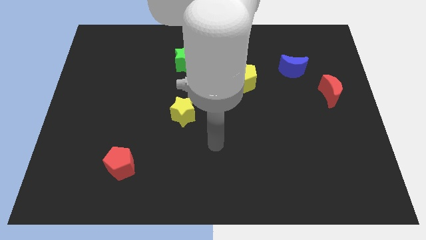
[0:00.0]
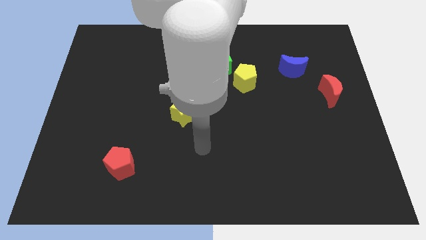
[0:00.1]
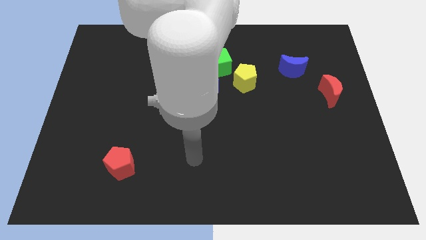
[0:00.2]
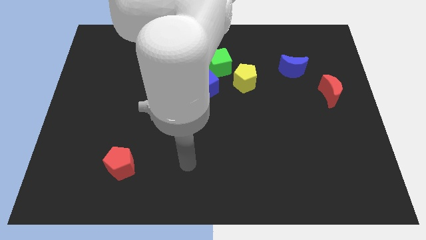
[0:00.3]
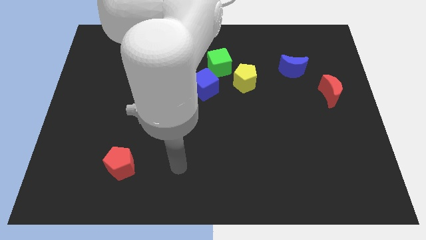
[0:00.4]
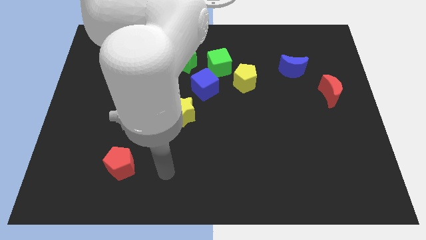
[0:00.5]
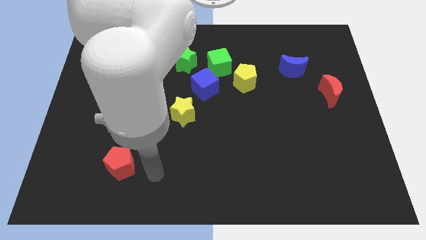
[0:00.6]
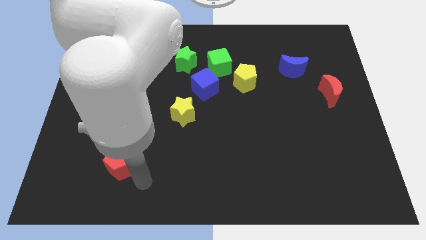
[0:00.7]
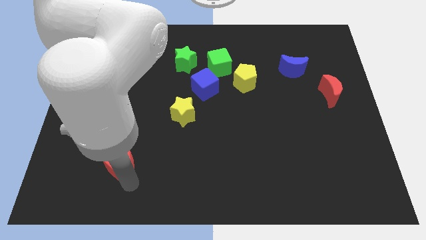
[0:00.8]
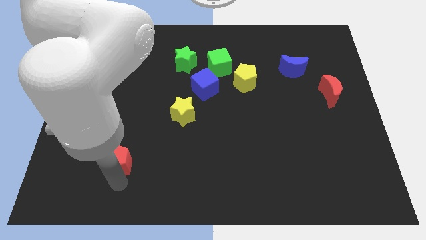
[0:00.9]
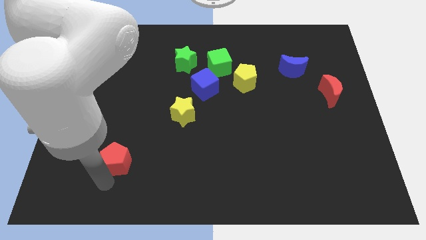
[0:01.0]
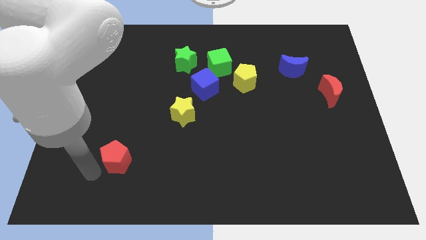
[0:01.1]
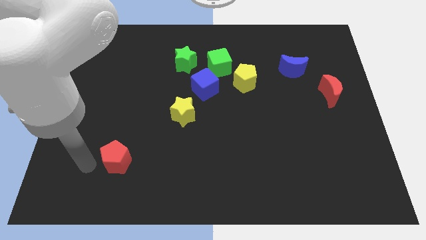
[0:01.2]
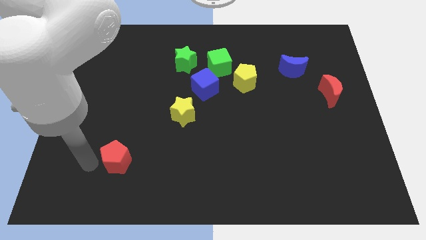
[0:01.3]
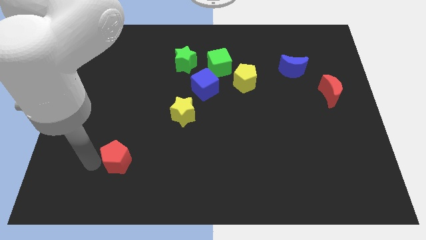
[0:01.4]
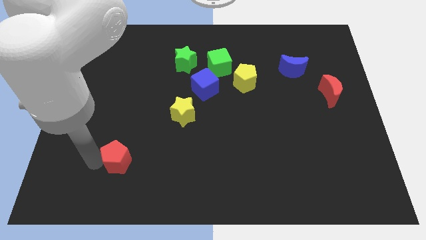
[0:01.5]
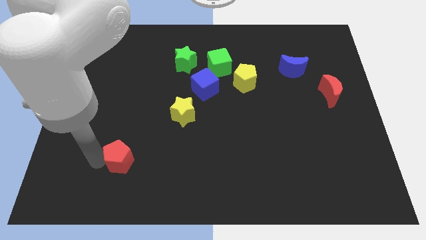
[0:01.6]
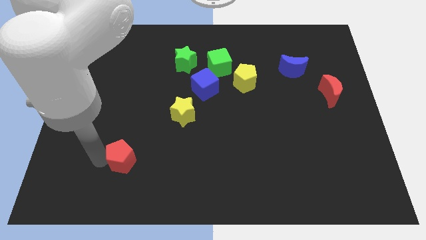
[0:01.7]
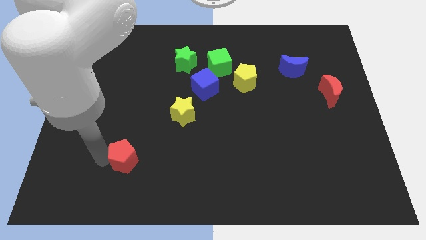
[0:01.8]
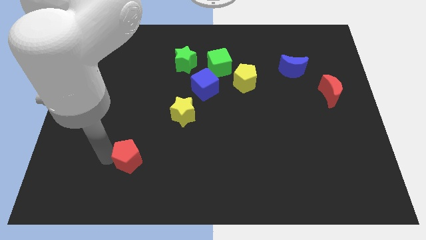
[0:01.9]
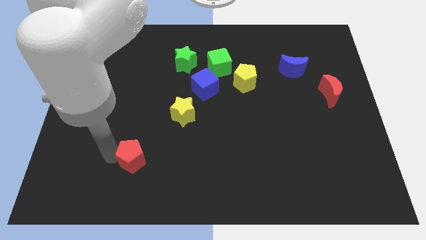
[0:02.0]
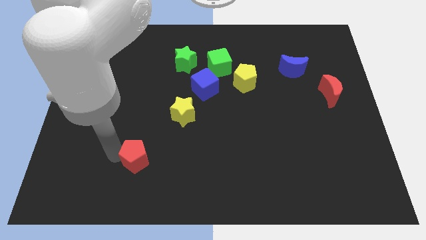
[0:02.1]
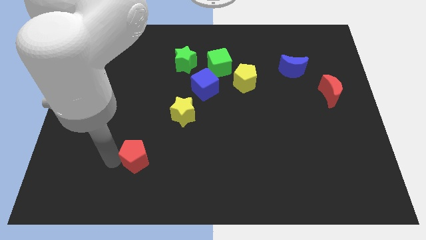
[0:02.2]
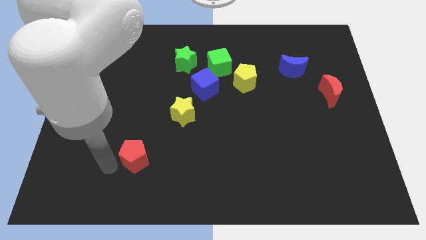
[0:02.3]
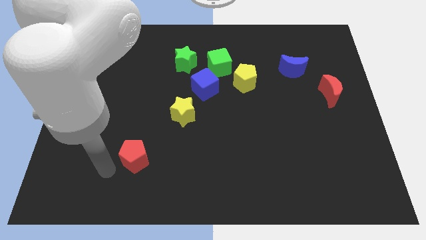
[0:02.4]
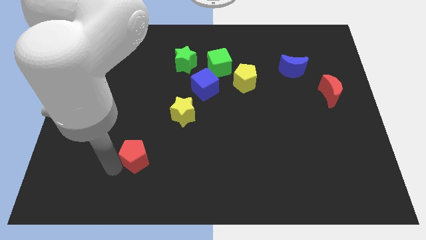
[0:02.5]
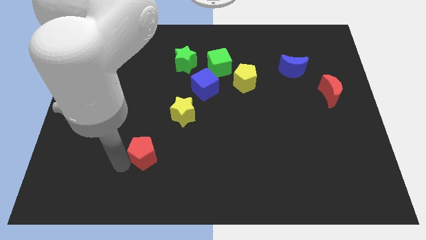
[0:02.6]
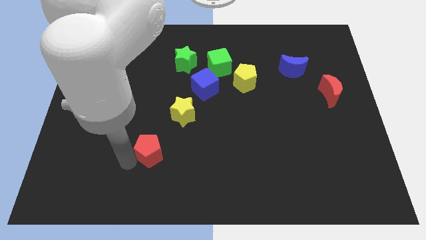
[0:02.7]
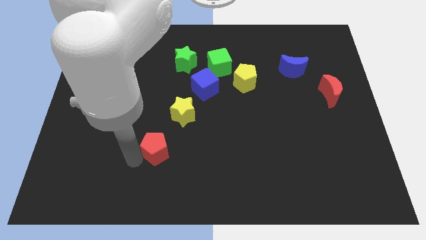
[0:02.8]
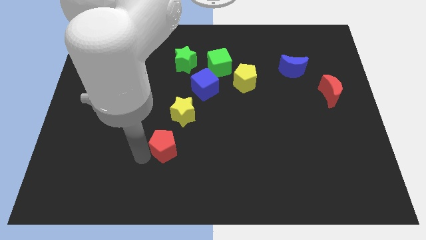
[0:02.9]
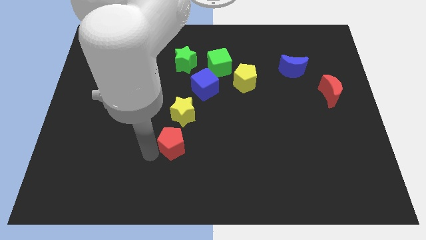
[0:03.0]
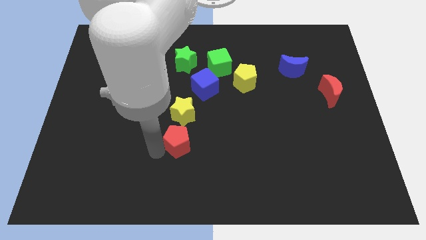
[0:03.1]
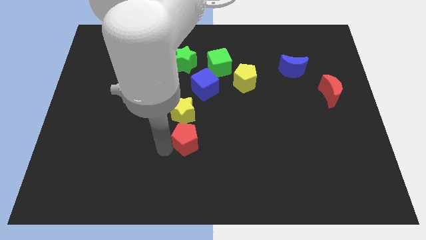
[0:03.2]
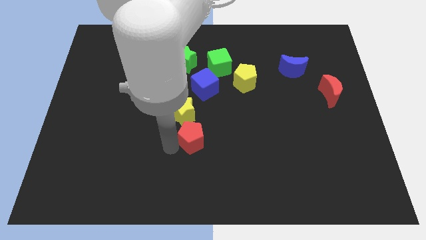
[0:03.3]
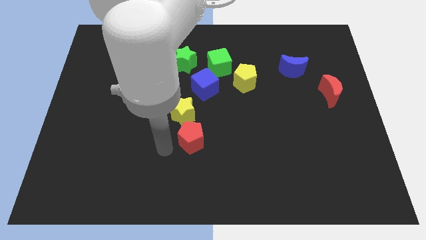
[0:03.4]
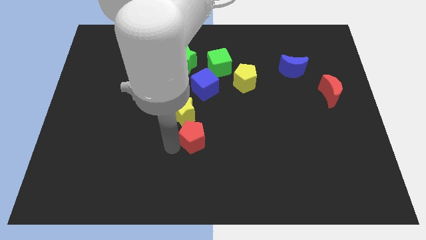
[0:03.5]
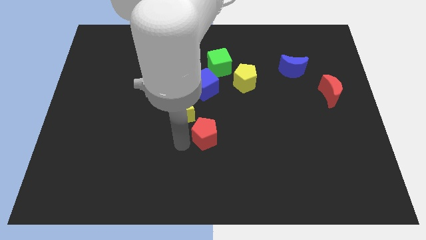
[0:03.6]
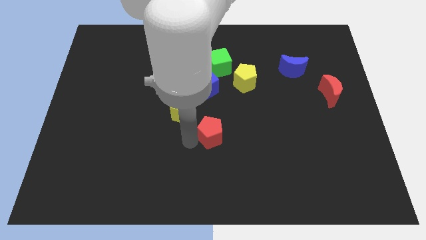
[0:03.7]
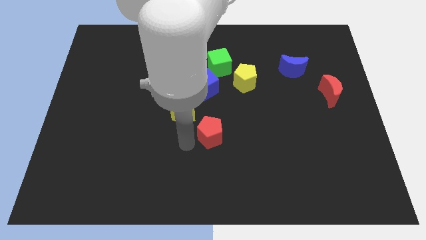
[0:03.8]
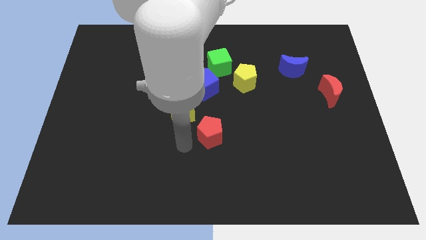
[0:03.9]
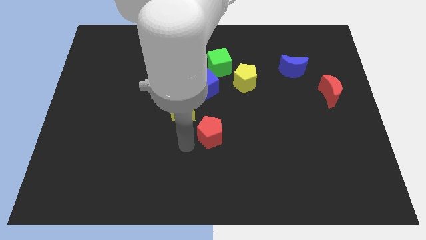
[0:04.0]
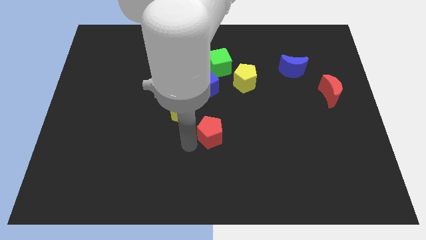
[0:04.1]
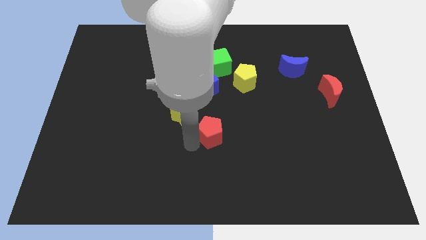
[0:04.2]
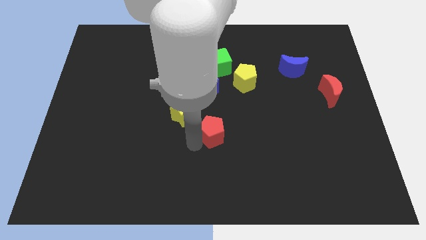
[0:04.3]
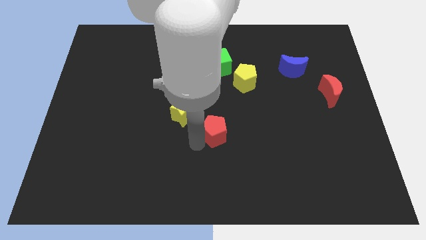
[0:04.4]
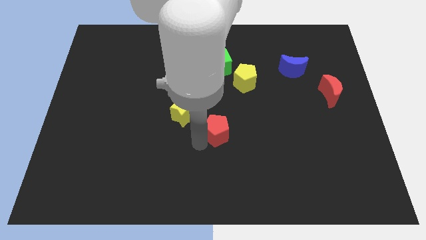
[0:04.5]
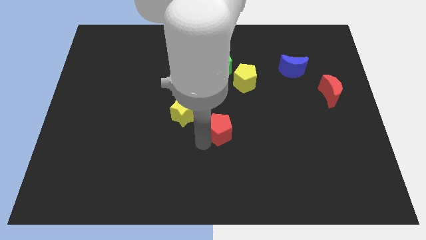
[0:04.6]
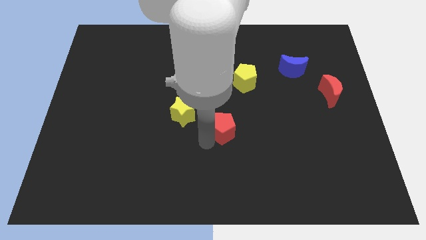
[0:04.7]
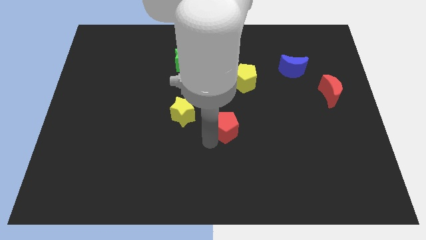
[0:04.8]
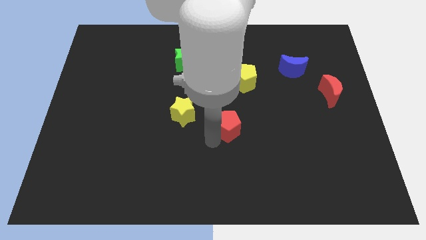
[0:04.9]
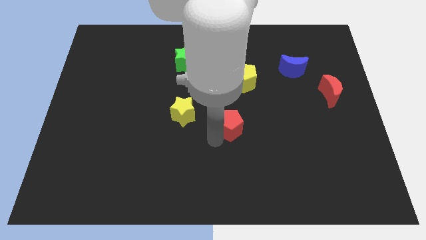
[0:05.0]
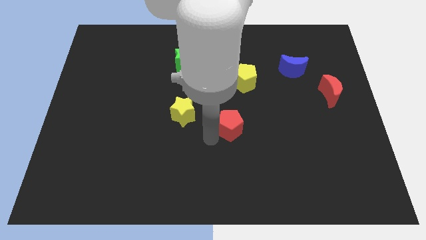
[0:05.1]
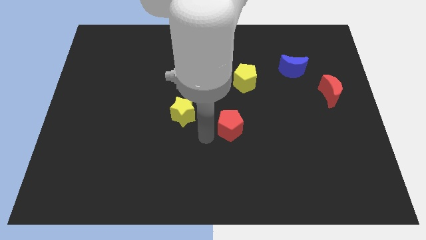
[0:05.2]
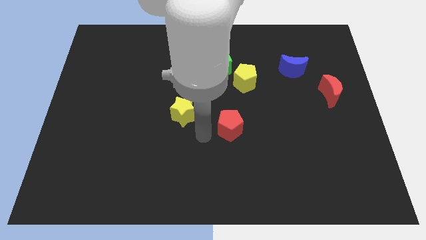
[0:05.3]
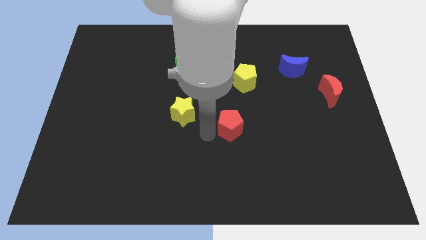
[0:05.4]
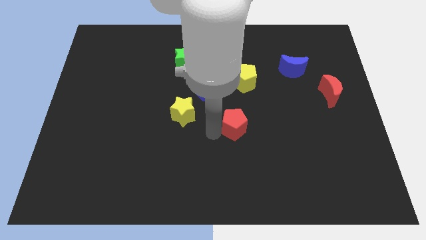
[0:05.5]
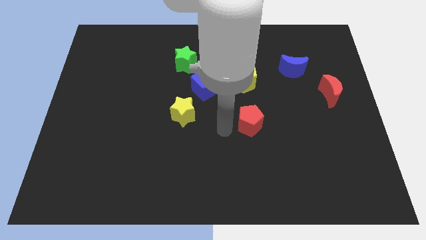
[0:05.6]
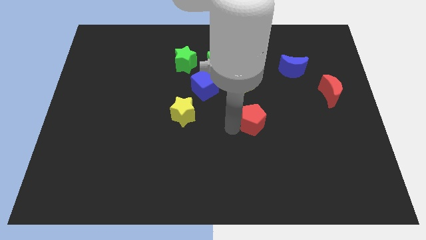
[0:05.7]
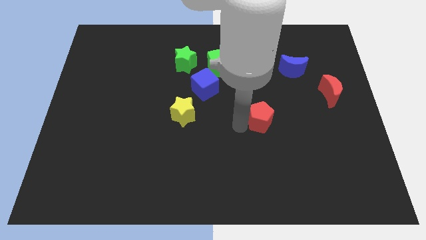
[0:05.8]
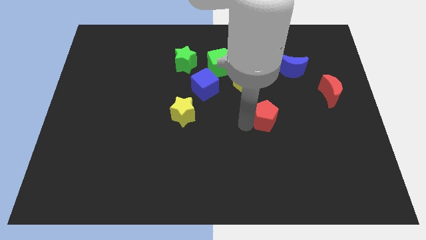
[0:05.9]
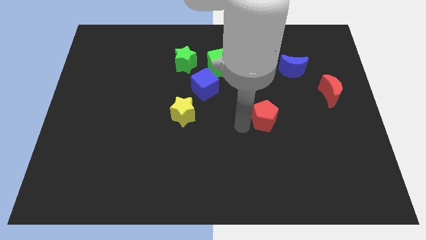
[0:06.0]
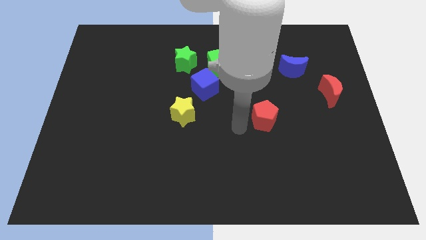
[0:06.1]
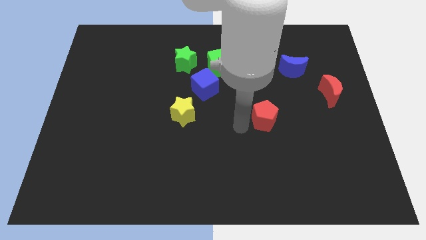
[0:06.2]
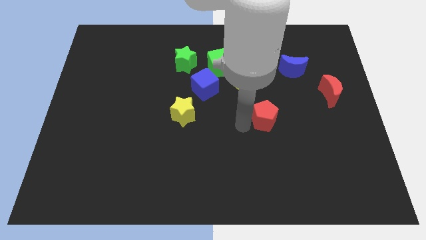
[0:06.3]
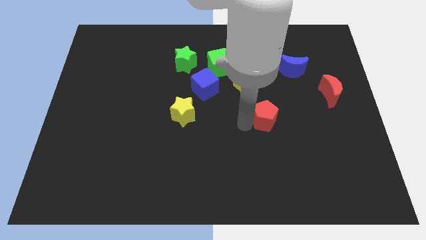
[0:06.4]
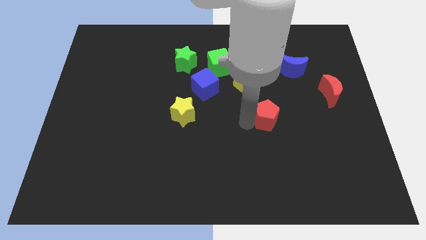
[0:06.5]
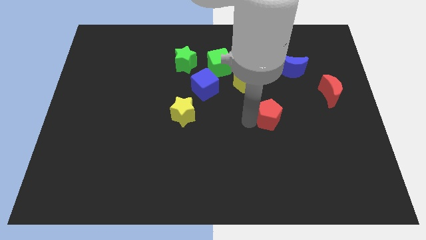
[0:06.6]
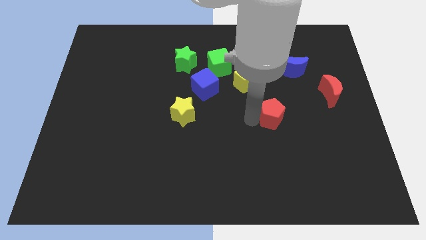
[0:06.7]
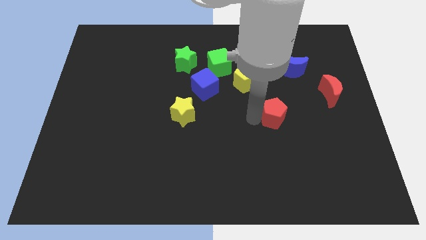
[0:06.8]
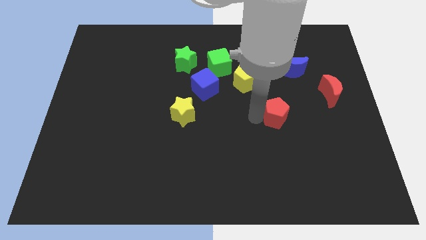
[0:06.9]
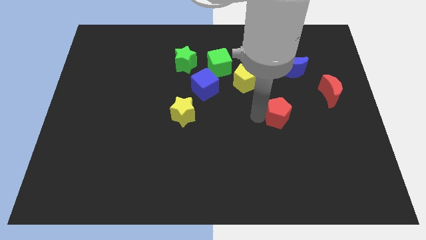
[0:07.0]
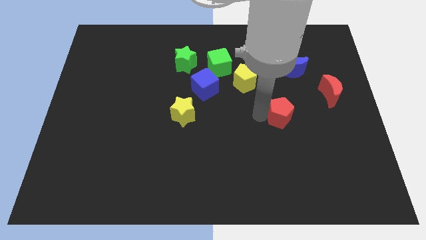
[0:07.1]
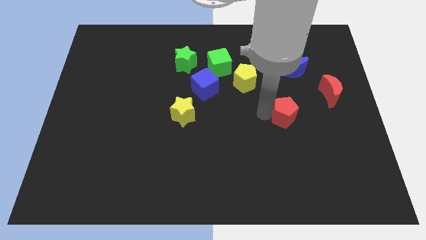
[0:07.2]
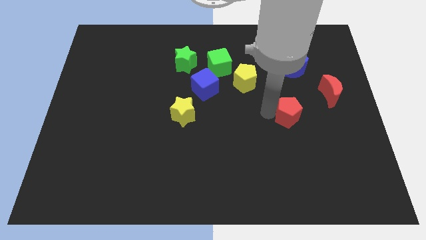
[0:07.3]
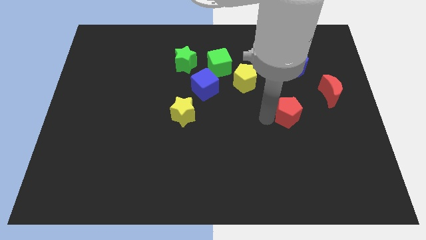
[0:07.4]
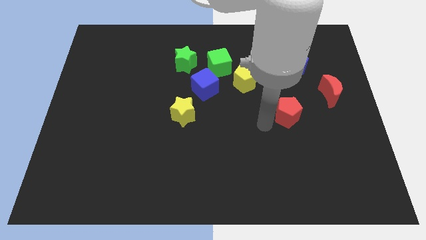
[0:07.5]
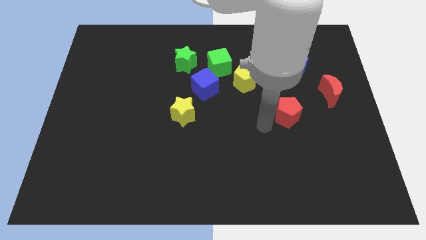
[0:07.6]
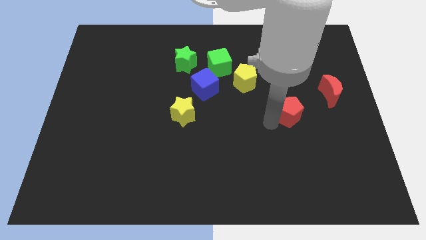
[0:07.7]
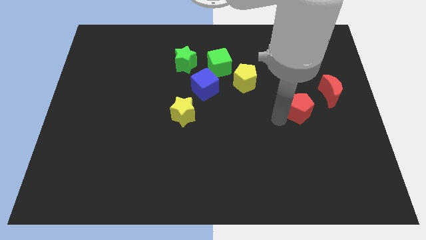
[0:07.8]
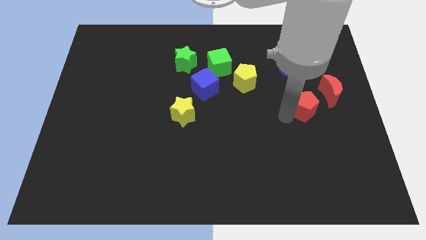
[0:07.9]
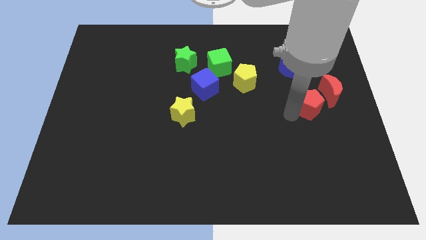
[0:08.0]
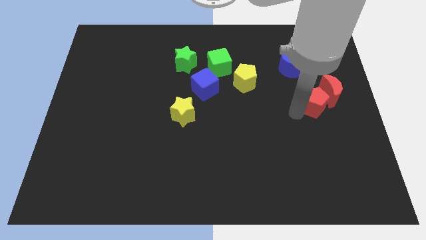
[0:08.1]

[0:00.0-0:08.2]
put the red pentagon next to the red moon
